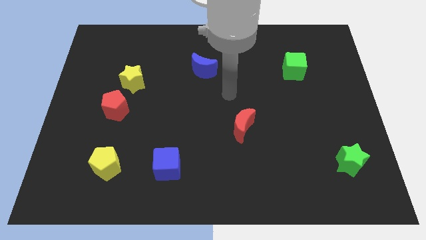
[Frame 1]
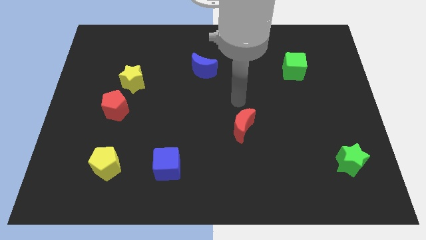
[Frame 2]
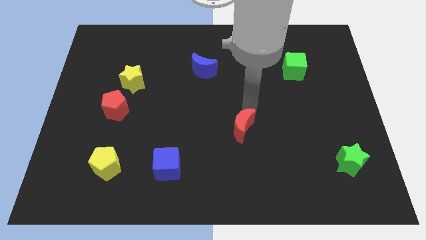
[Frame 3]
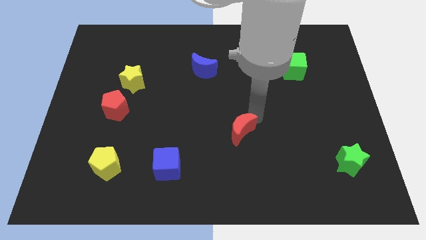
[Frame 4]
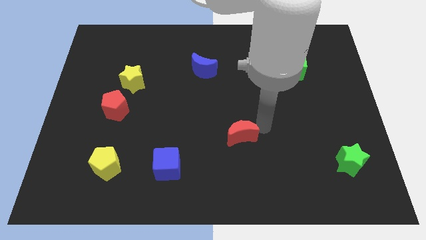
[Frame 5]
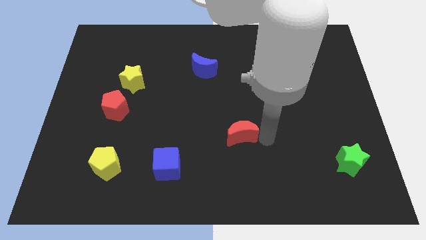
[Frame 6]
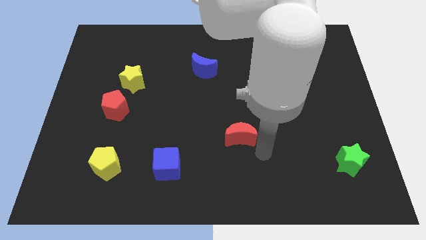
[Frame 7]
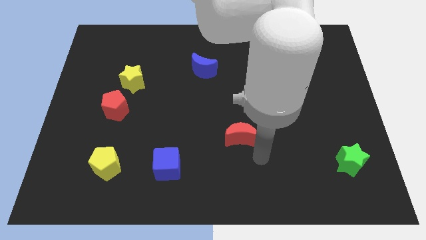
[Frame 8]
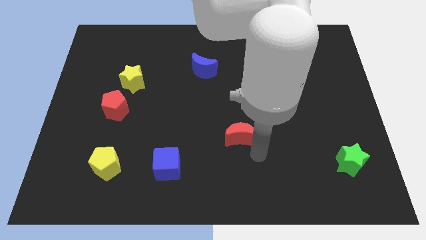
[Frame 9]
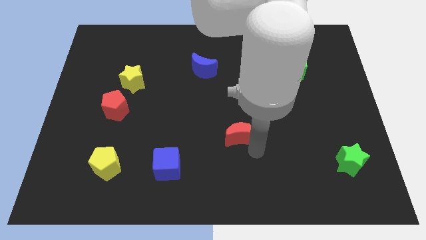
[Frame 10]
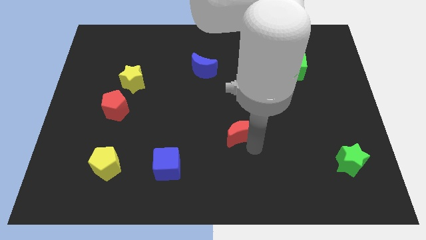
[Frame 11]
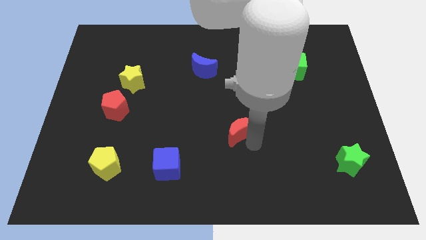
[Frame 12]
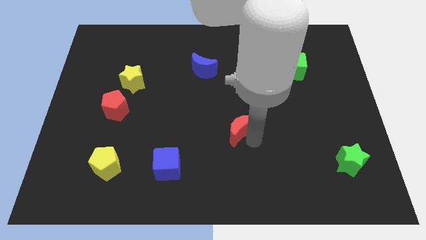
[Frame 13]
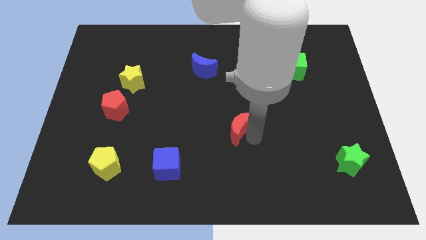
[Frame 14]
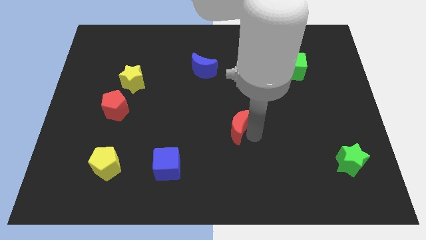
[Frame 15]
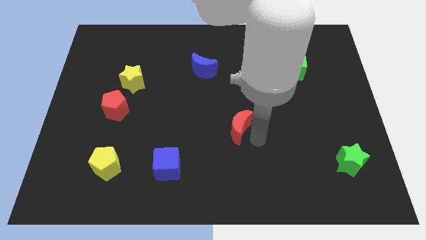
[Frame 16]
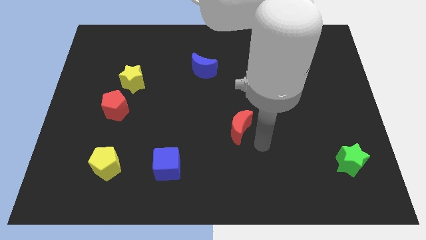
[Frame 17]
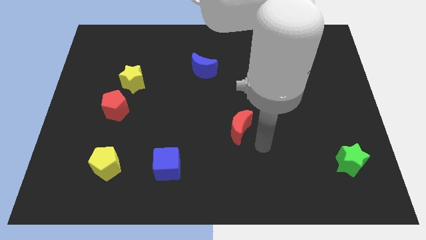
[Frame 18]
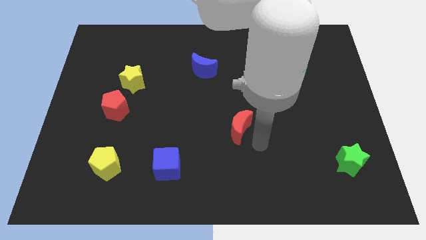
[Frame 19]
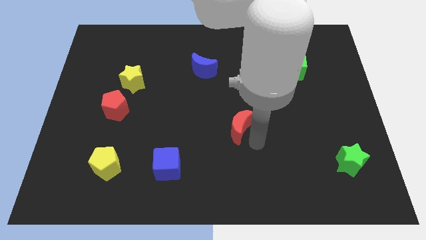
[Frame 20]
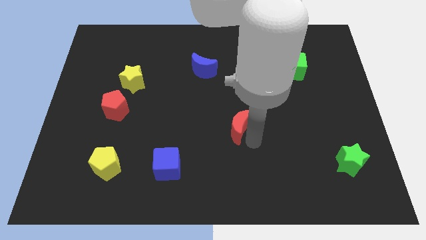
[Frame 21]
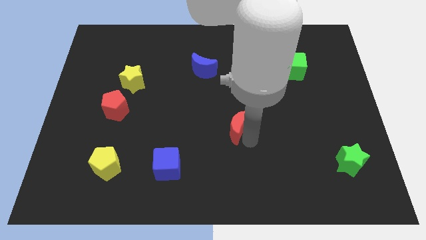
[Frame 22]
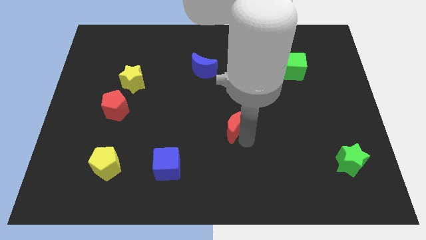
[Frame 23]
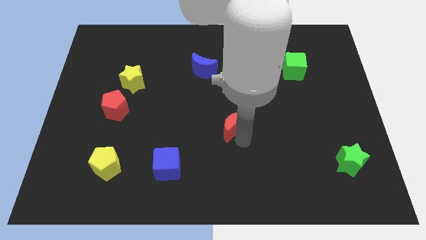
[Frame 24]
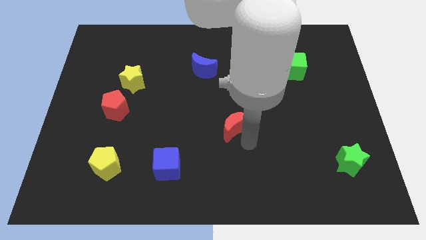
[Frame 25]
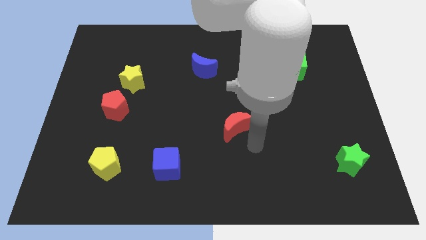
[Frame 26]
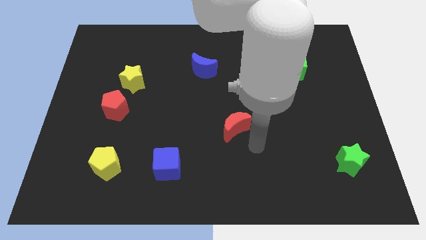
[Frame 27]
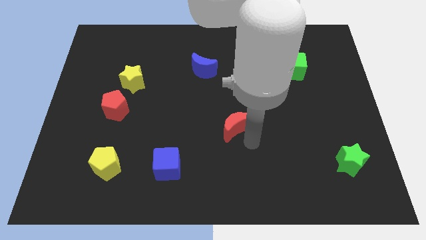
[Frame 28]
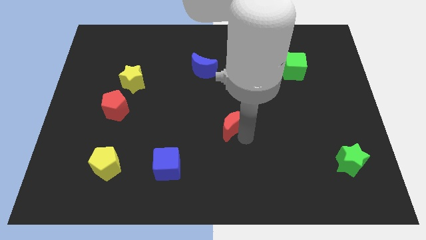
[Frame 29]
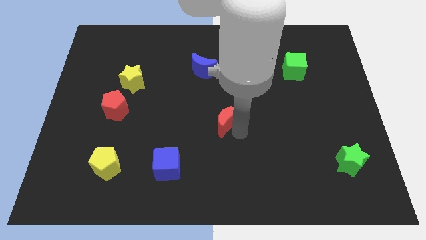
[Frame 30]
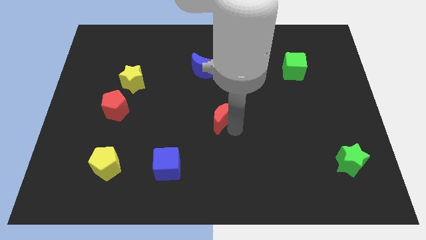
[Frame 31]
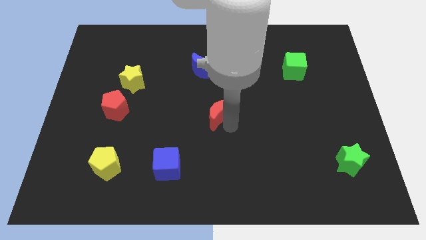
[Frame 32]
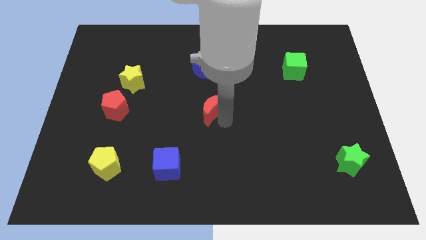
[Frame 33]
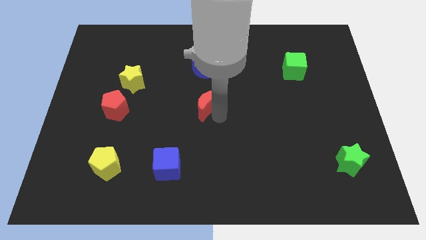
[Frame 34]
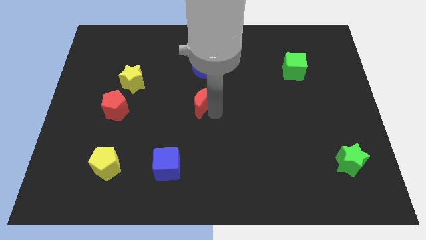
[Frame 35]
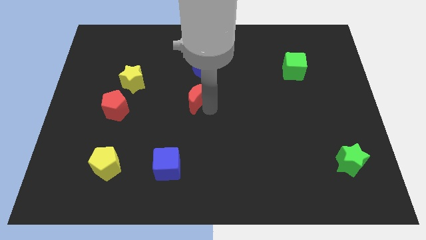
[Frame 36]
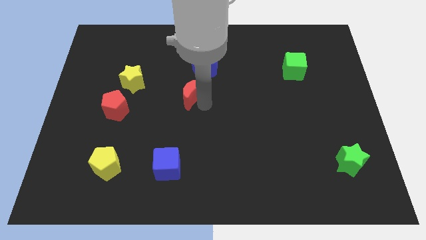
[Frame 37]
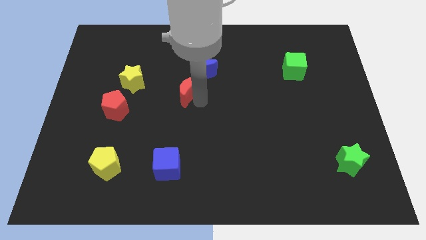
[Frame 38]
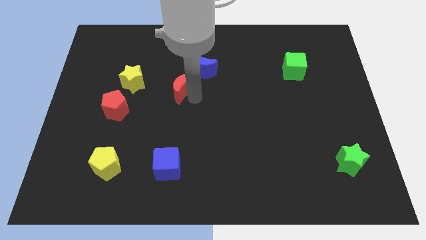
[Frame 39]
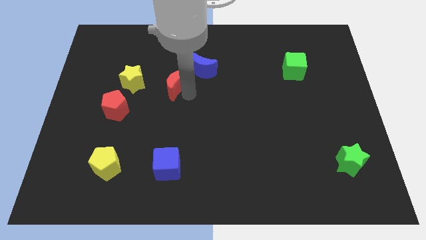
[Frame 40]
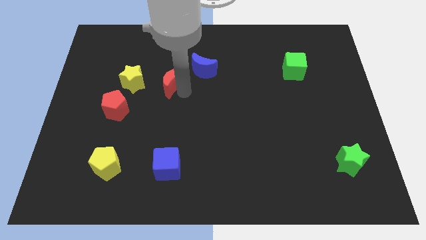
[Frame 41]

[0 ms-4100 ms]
move the red moon up and then left

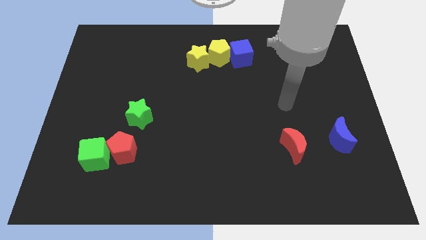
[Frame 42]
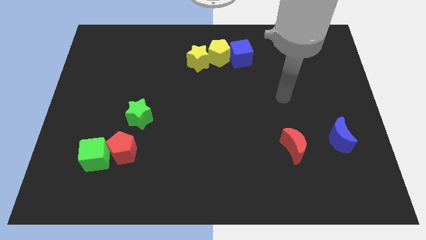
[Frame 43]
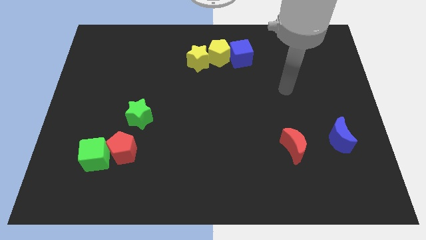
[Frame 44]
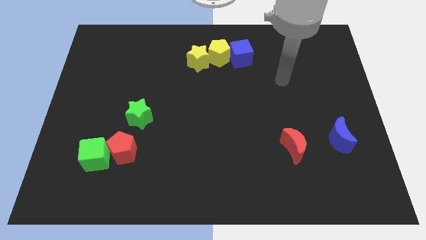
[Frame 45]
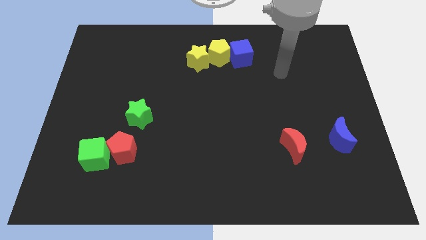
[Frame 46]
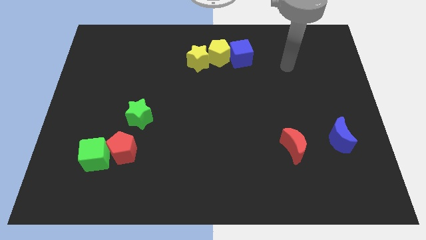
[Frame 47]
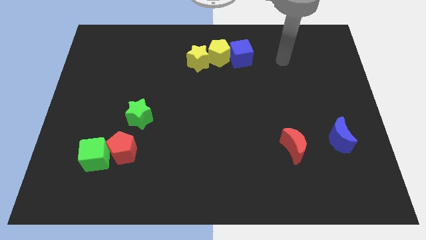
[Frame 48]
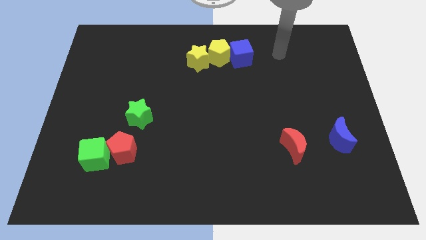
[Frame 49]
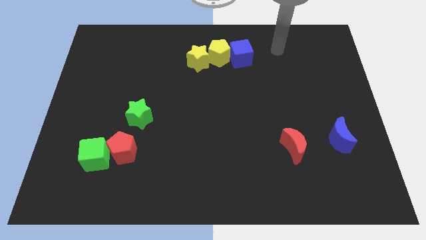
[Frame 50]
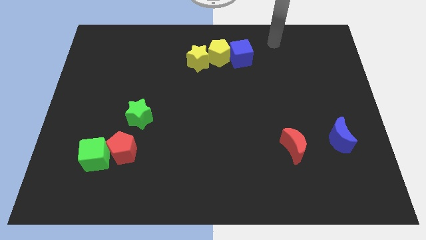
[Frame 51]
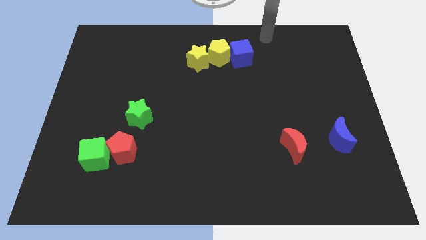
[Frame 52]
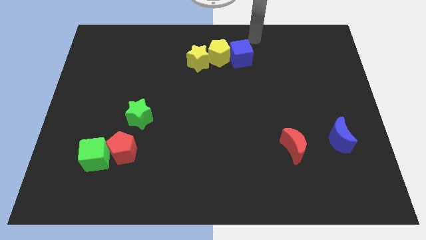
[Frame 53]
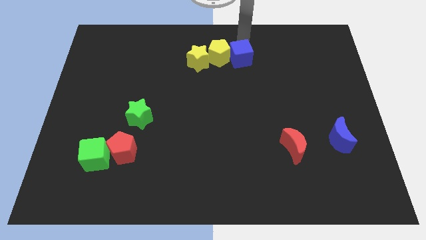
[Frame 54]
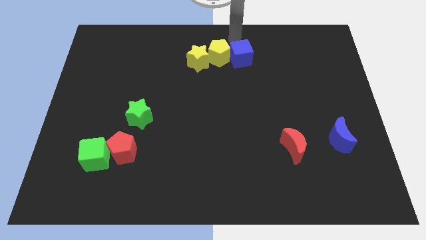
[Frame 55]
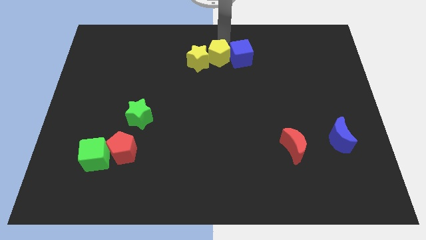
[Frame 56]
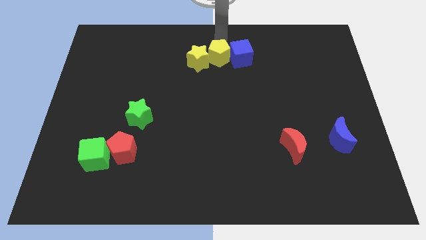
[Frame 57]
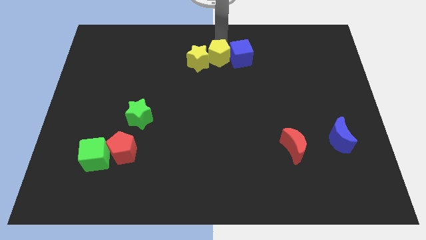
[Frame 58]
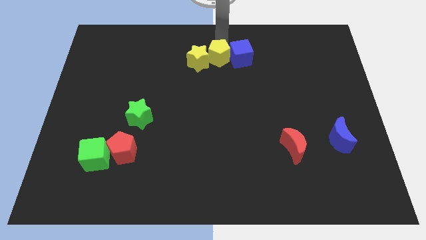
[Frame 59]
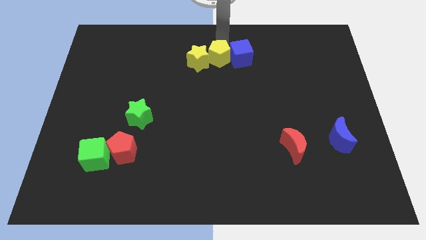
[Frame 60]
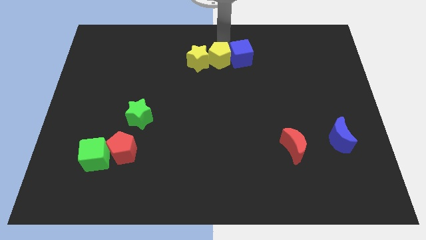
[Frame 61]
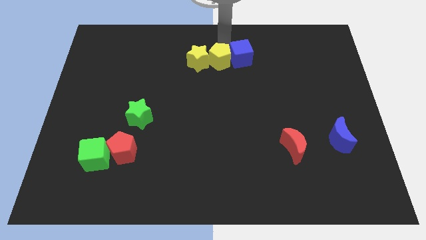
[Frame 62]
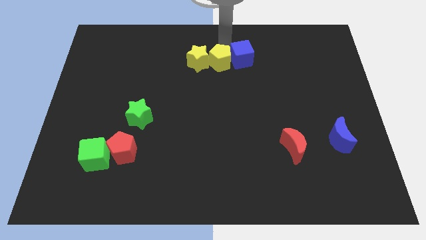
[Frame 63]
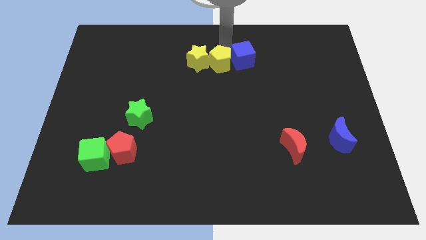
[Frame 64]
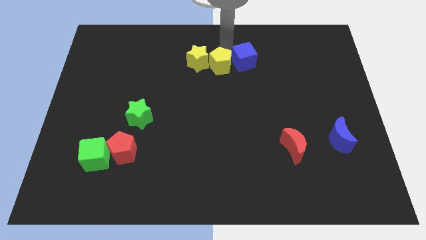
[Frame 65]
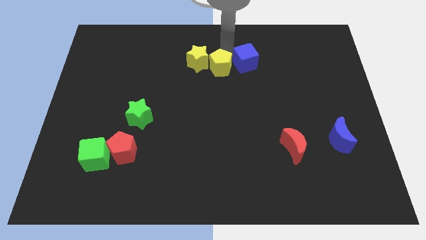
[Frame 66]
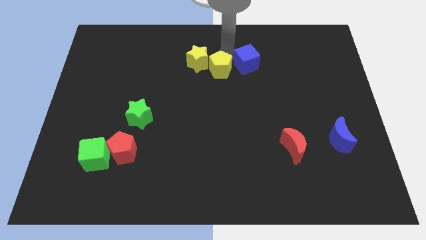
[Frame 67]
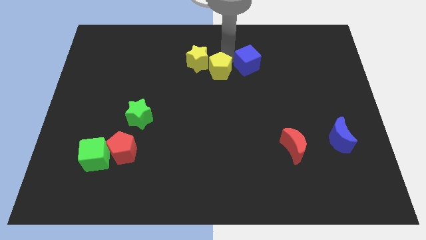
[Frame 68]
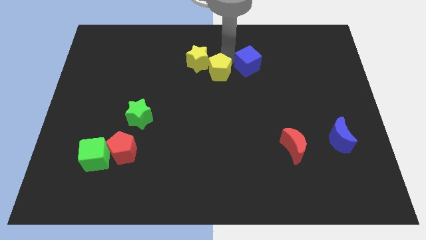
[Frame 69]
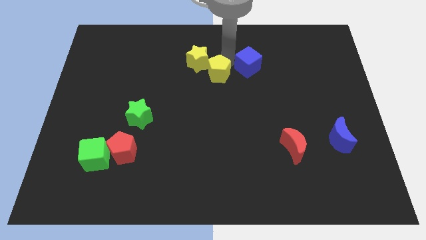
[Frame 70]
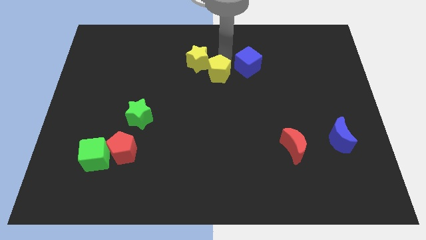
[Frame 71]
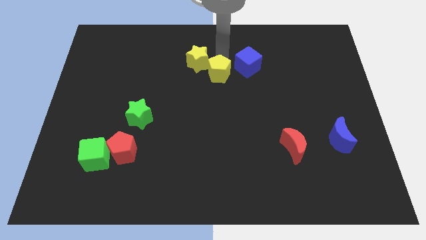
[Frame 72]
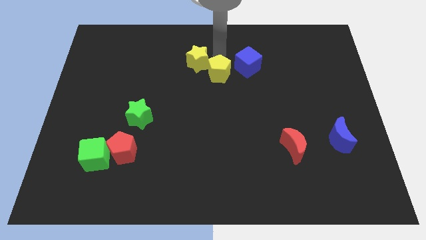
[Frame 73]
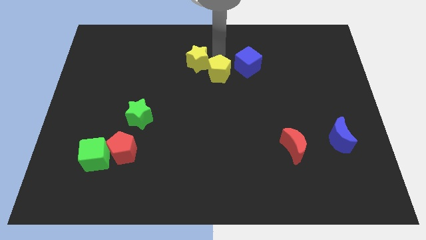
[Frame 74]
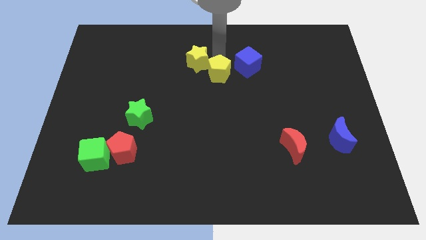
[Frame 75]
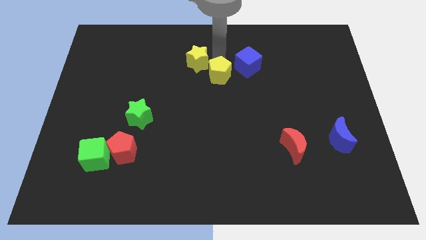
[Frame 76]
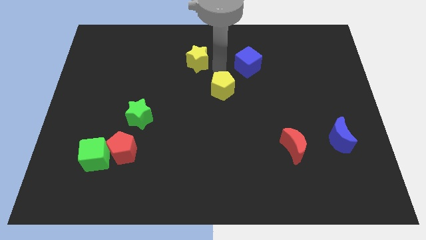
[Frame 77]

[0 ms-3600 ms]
push the yellow pentagon downwards a bit
